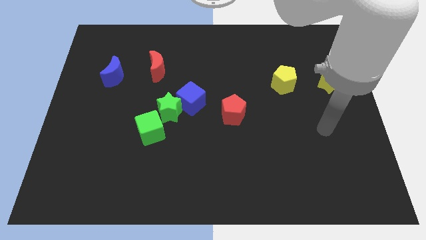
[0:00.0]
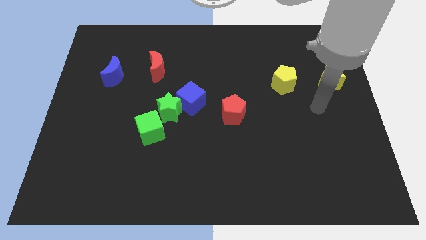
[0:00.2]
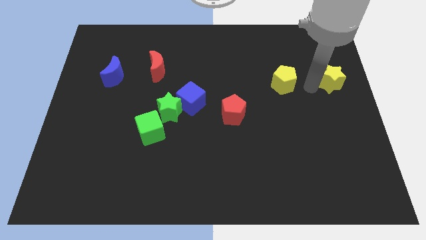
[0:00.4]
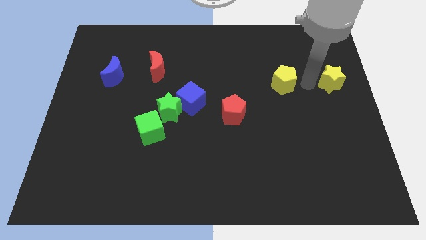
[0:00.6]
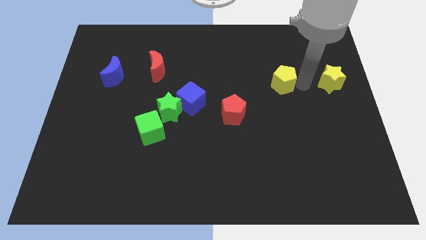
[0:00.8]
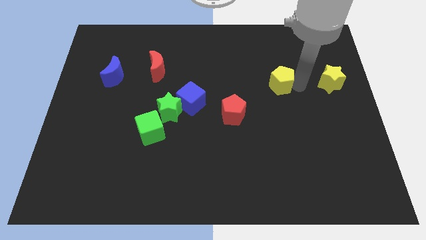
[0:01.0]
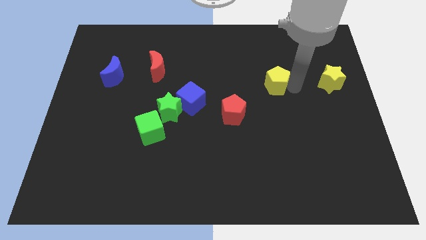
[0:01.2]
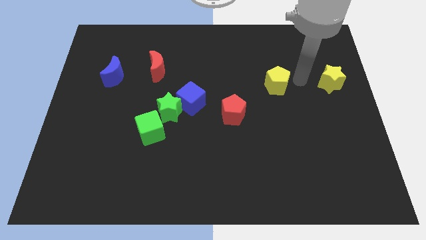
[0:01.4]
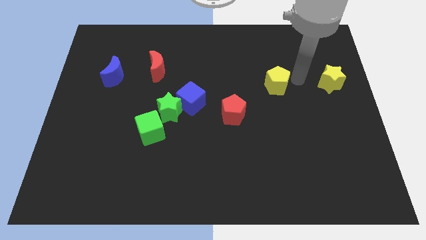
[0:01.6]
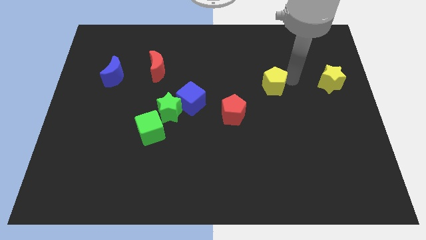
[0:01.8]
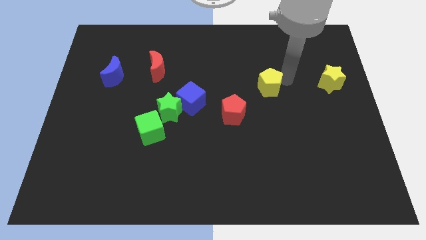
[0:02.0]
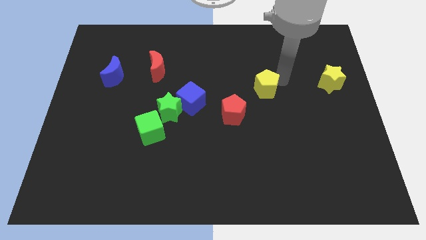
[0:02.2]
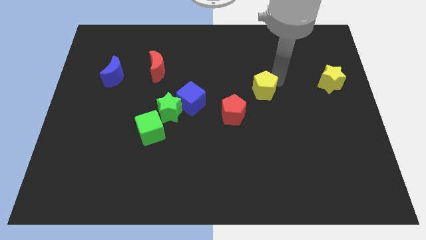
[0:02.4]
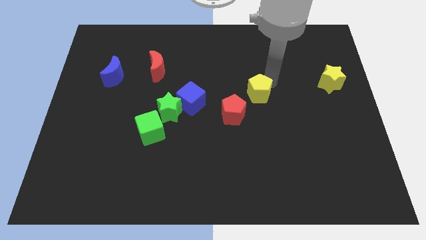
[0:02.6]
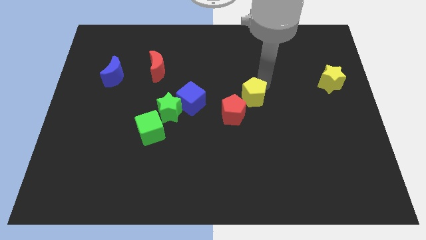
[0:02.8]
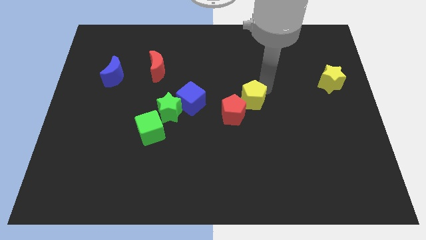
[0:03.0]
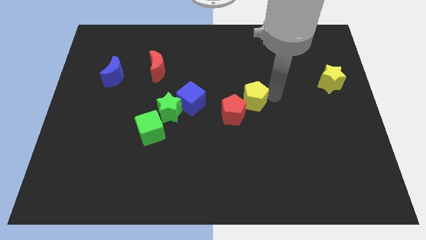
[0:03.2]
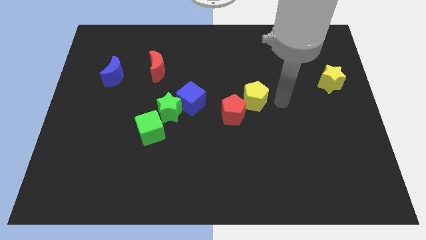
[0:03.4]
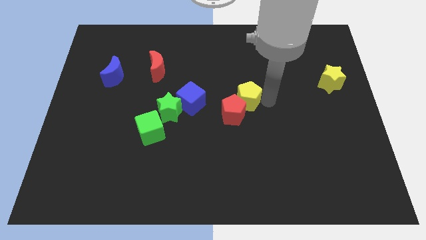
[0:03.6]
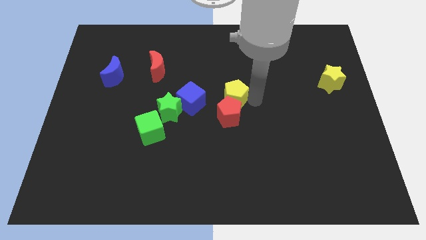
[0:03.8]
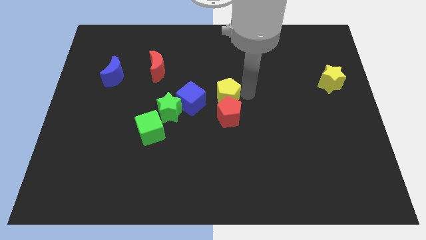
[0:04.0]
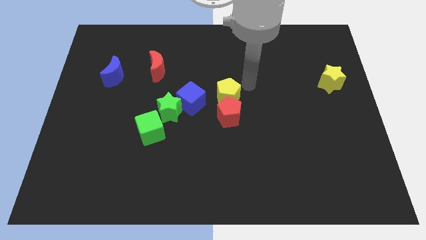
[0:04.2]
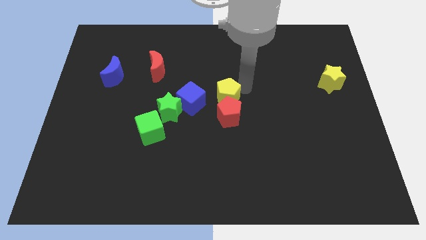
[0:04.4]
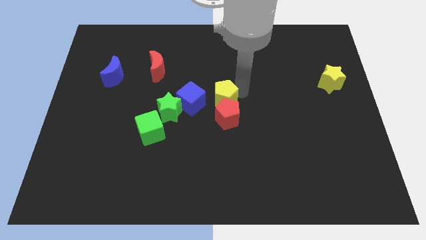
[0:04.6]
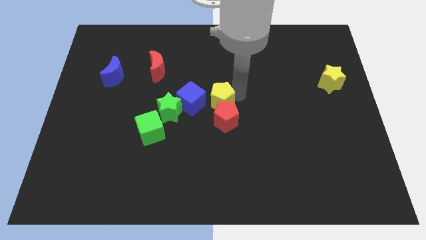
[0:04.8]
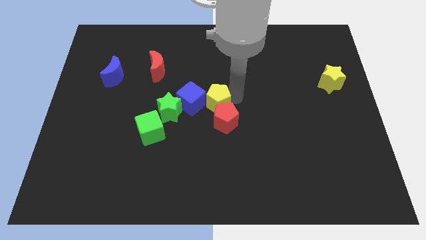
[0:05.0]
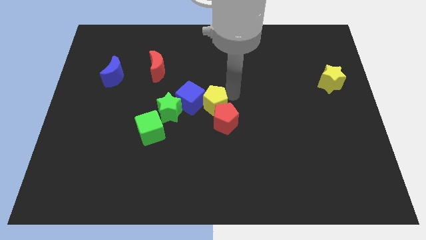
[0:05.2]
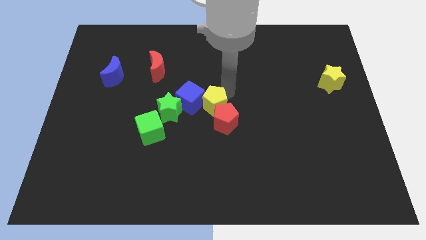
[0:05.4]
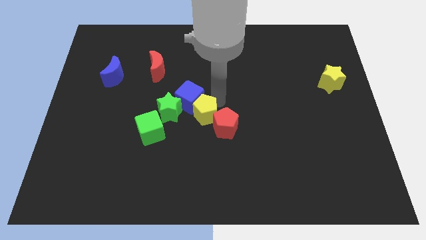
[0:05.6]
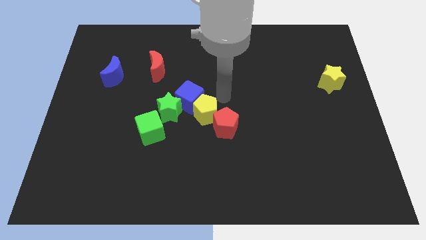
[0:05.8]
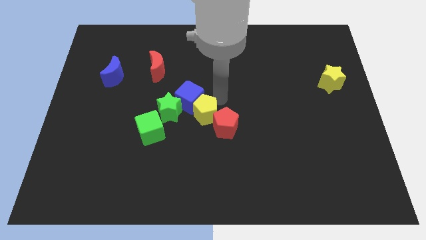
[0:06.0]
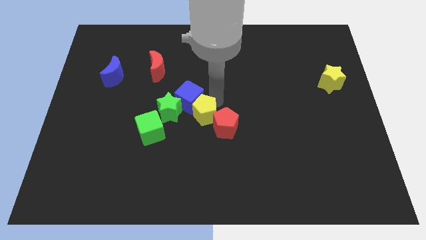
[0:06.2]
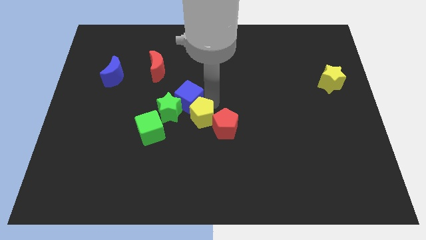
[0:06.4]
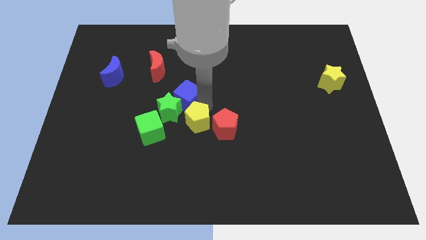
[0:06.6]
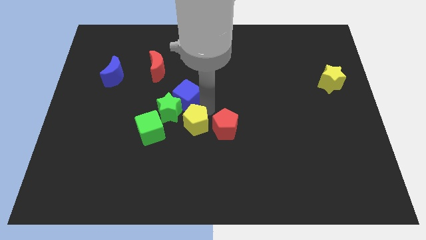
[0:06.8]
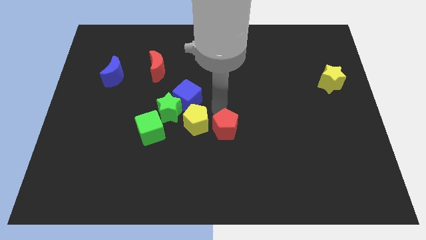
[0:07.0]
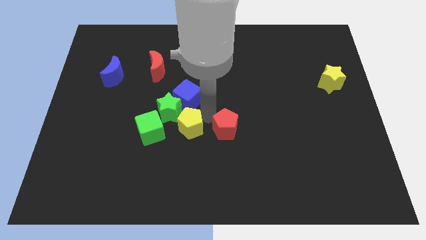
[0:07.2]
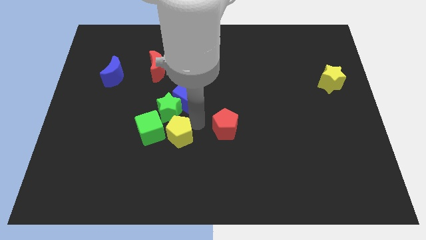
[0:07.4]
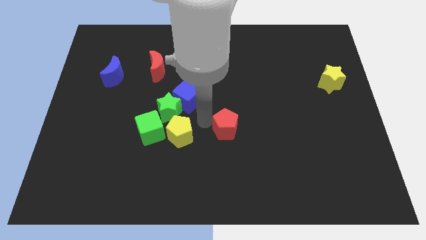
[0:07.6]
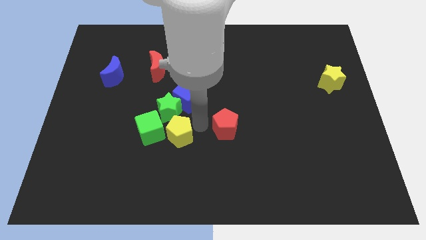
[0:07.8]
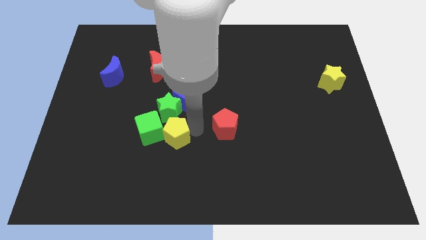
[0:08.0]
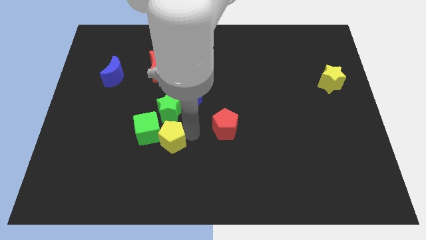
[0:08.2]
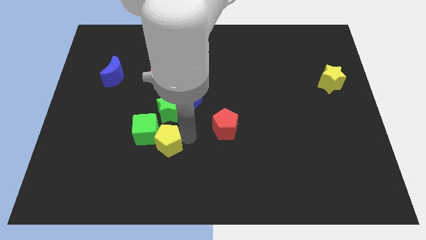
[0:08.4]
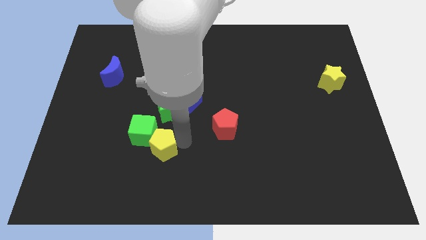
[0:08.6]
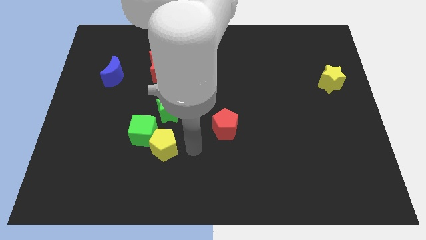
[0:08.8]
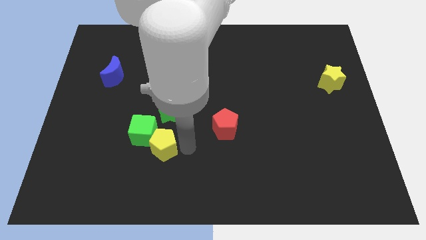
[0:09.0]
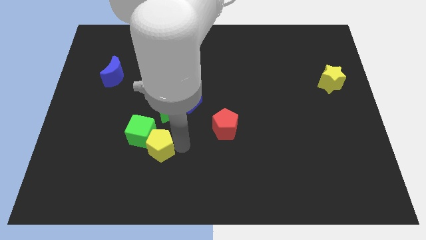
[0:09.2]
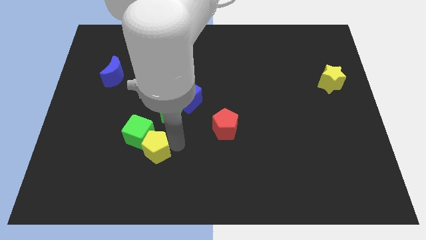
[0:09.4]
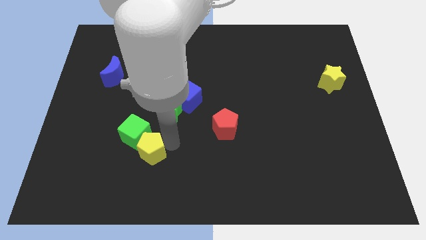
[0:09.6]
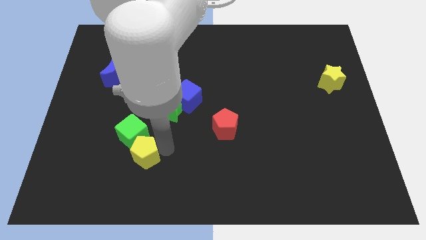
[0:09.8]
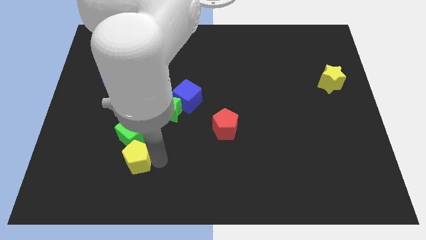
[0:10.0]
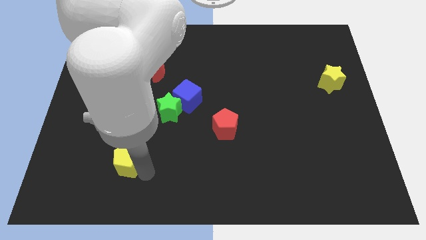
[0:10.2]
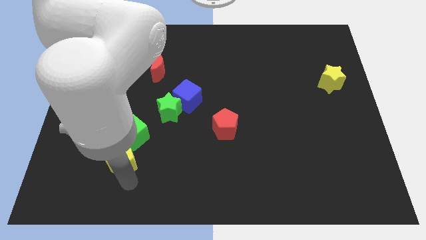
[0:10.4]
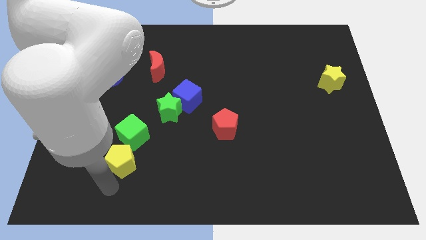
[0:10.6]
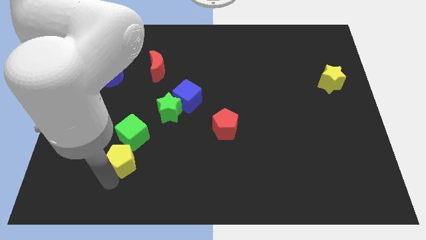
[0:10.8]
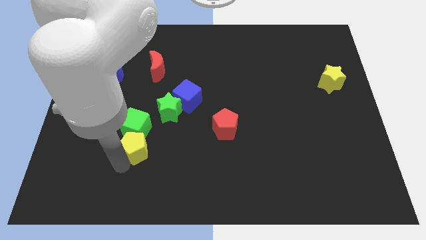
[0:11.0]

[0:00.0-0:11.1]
move the yellow pentagon diagonally down and to the left of the green star

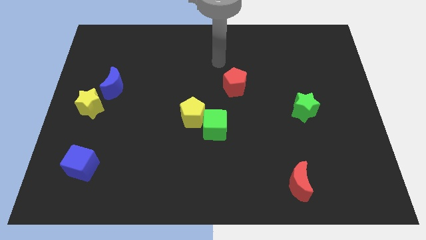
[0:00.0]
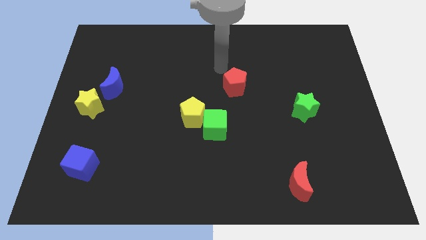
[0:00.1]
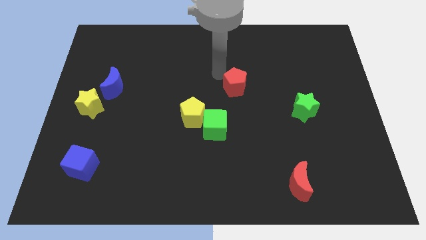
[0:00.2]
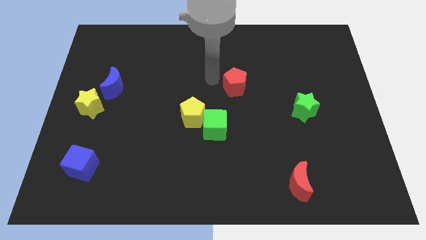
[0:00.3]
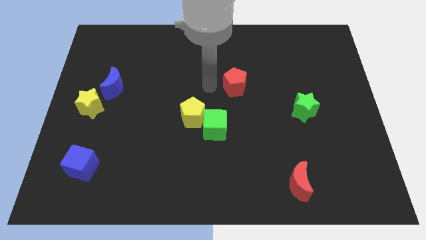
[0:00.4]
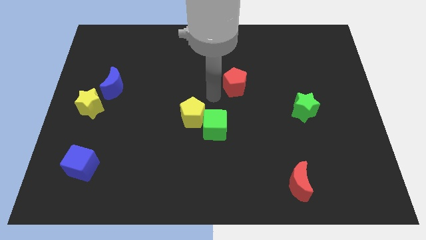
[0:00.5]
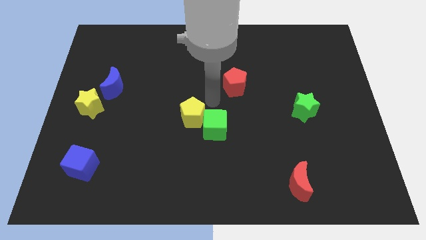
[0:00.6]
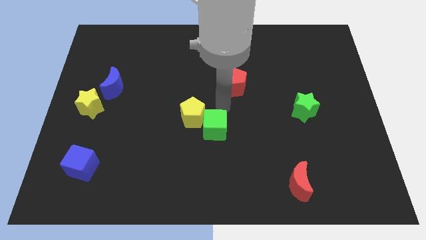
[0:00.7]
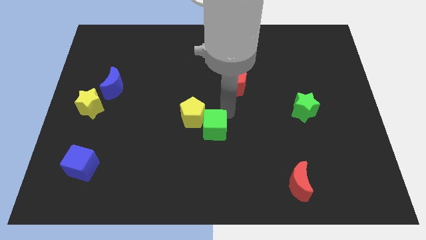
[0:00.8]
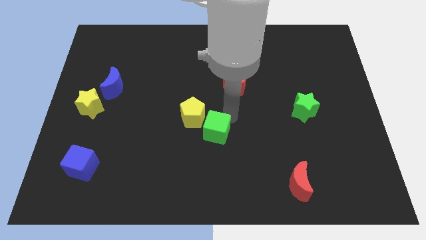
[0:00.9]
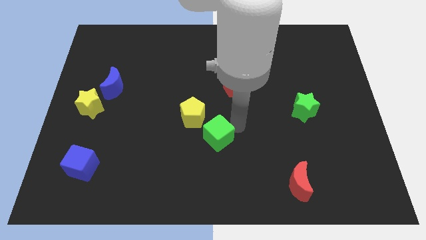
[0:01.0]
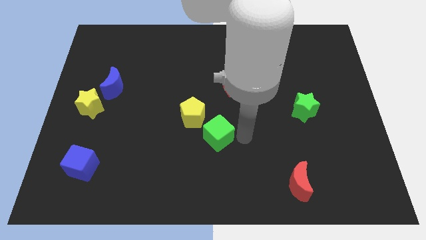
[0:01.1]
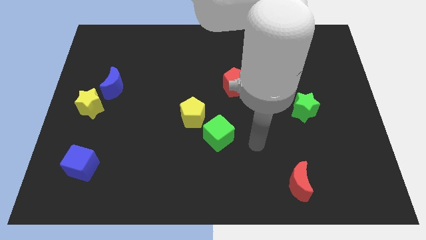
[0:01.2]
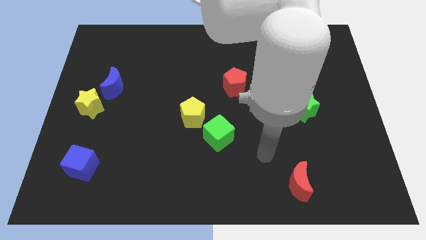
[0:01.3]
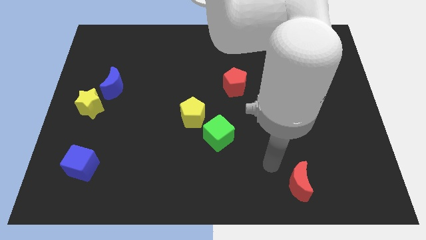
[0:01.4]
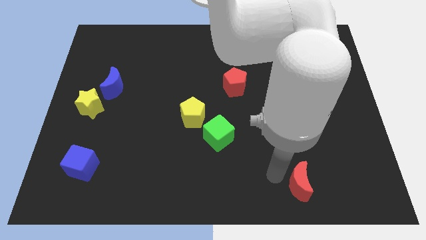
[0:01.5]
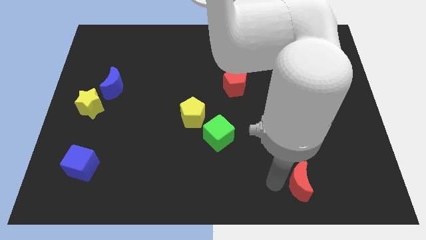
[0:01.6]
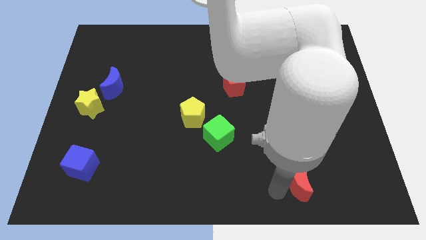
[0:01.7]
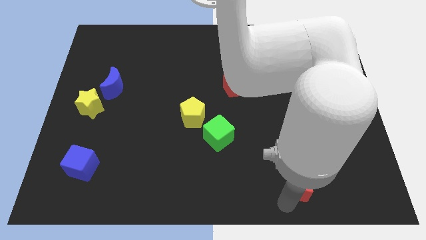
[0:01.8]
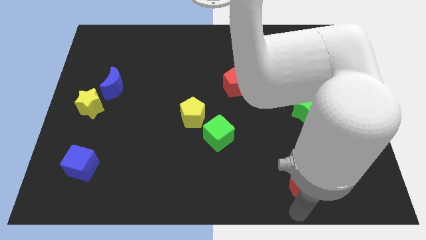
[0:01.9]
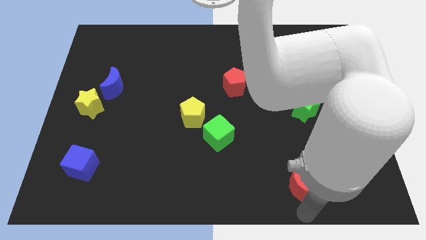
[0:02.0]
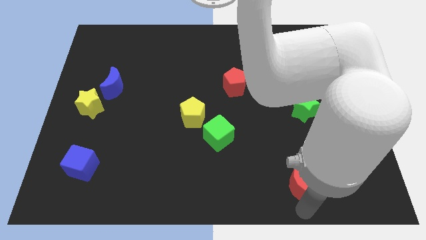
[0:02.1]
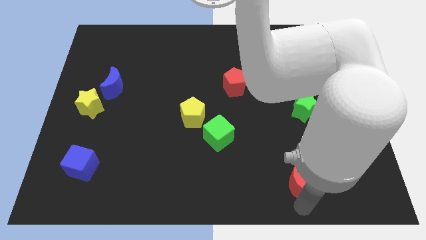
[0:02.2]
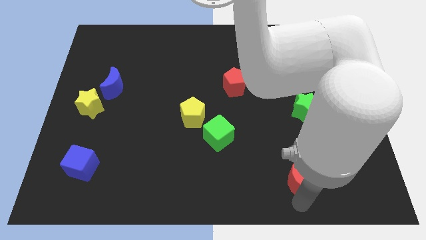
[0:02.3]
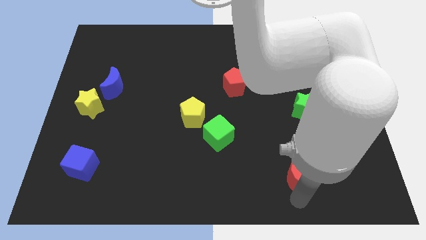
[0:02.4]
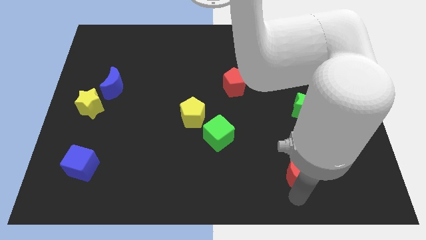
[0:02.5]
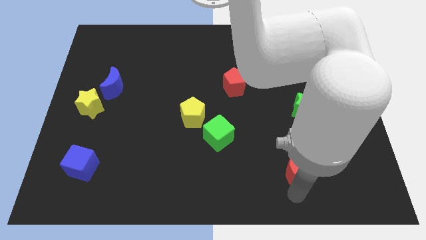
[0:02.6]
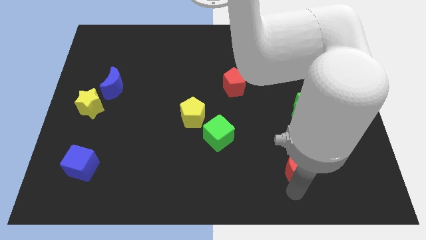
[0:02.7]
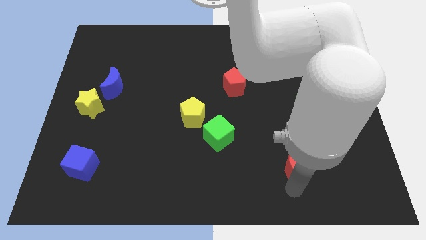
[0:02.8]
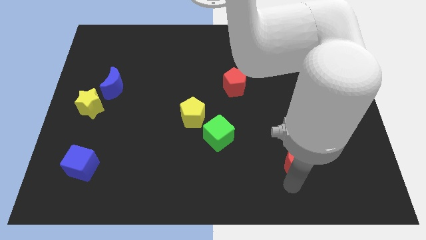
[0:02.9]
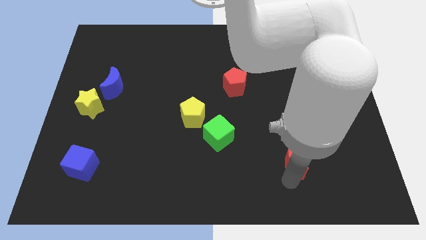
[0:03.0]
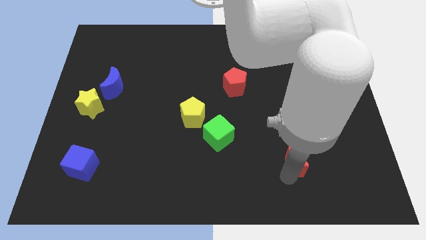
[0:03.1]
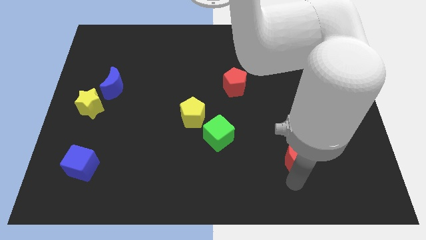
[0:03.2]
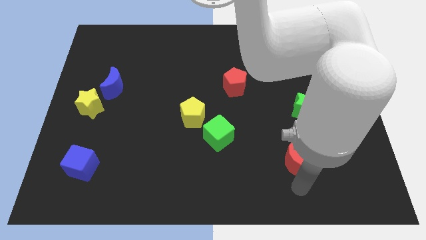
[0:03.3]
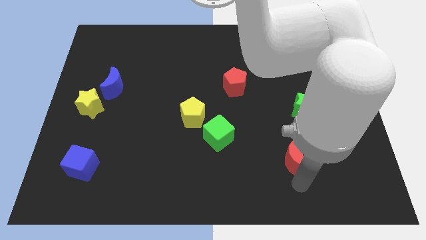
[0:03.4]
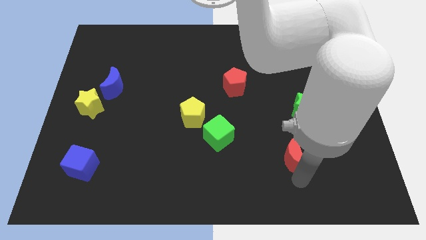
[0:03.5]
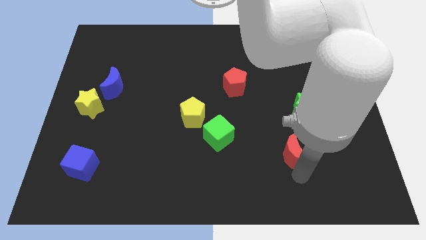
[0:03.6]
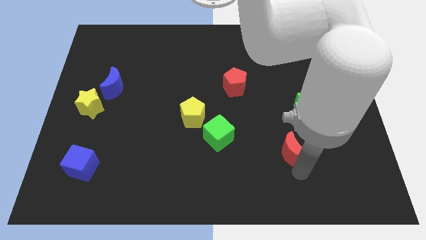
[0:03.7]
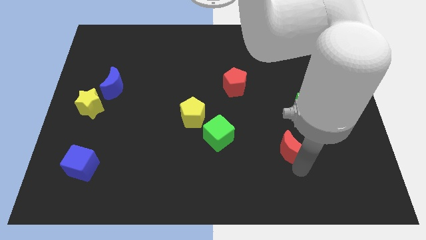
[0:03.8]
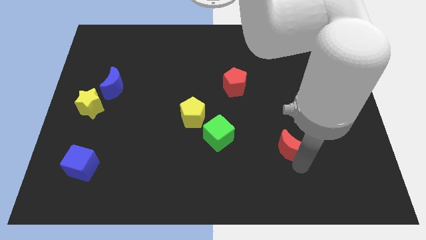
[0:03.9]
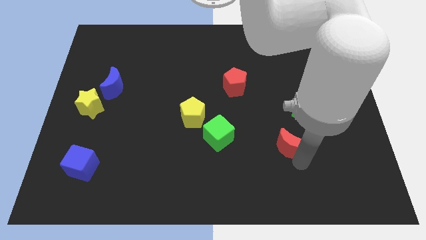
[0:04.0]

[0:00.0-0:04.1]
push the red moon diagonally down and to the left of the green star
